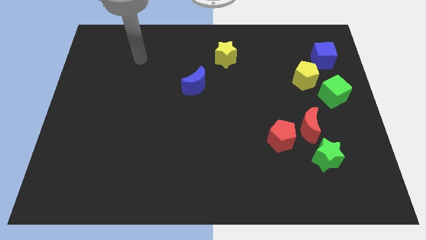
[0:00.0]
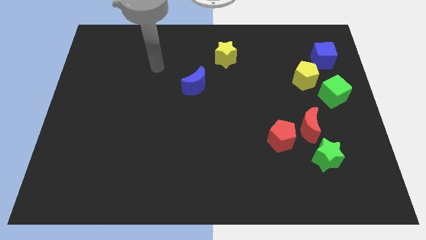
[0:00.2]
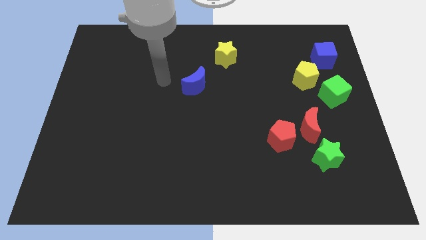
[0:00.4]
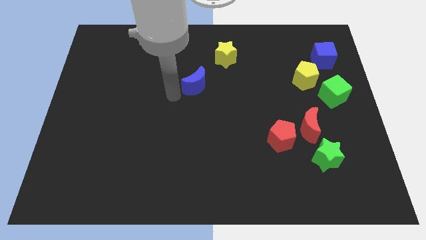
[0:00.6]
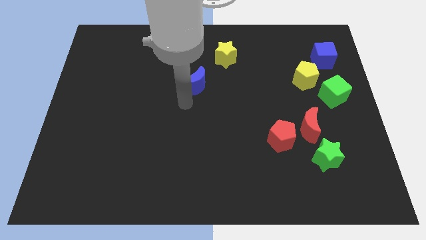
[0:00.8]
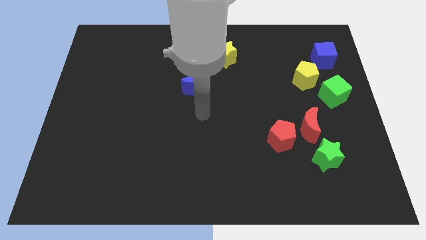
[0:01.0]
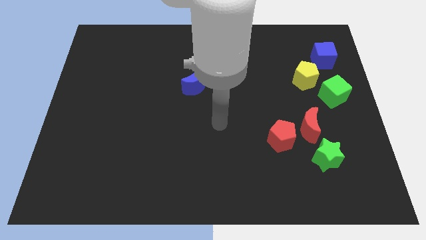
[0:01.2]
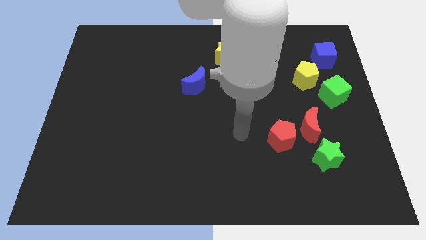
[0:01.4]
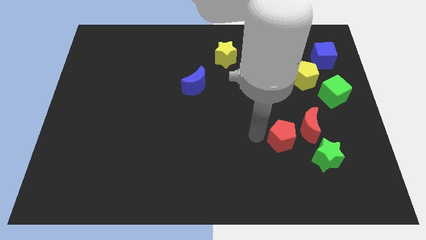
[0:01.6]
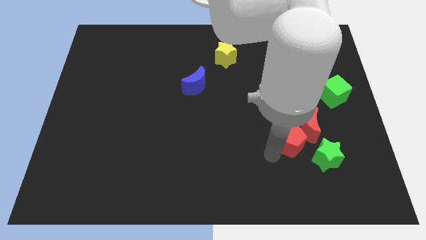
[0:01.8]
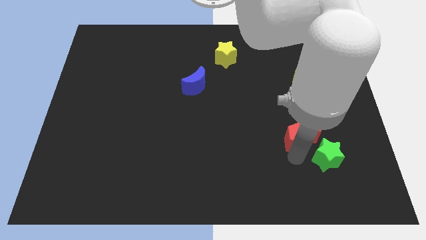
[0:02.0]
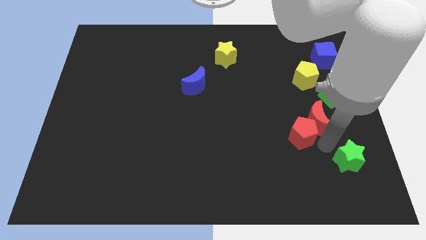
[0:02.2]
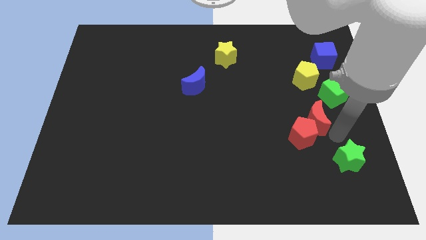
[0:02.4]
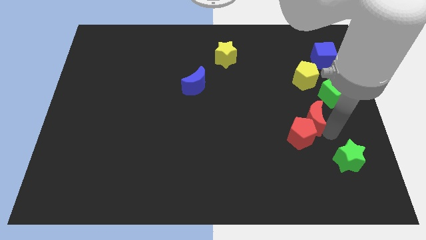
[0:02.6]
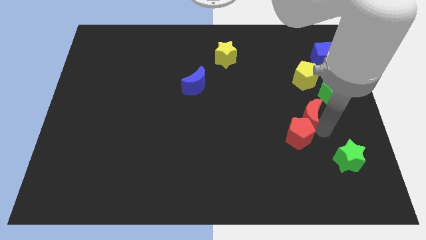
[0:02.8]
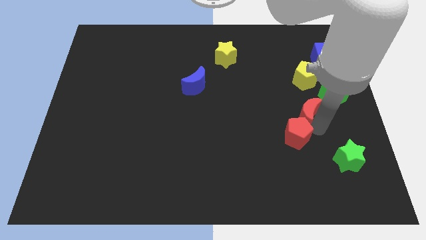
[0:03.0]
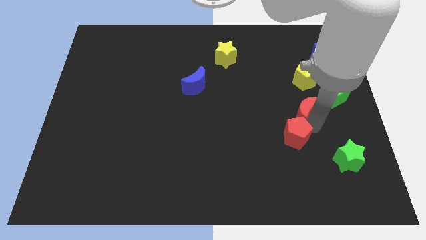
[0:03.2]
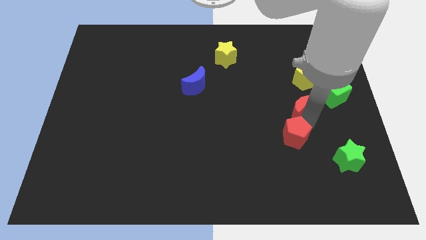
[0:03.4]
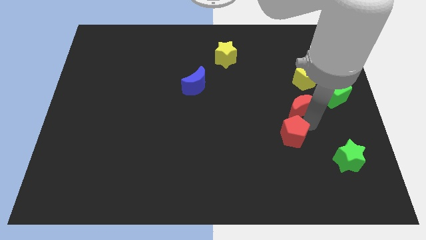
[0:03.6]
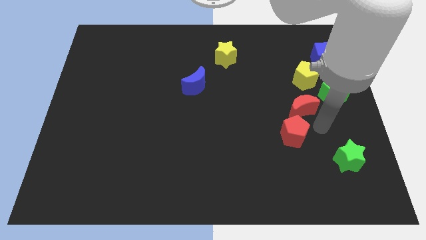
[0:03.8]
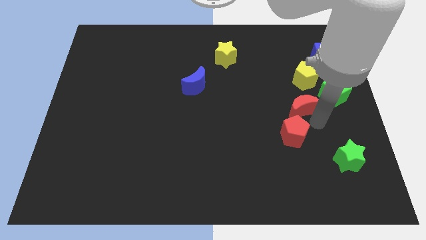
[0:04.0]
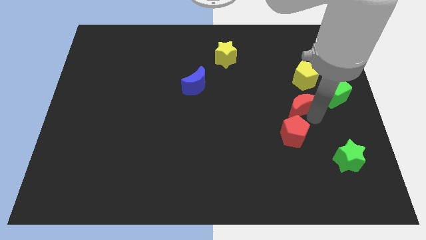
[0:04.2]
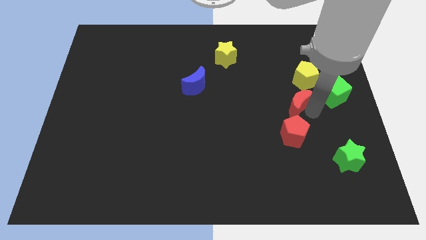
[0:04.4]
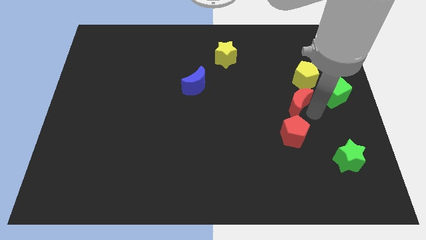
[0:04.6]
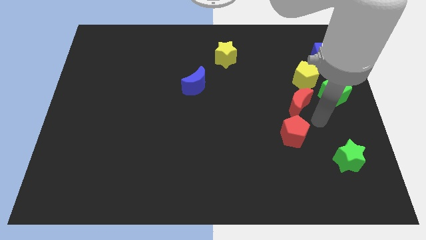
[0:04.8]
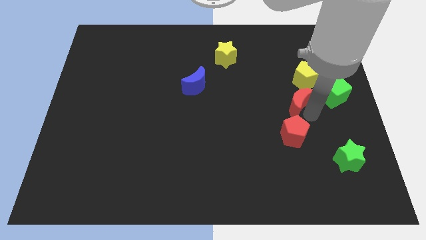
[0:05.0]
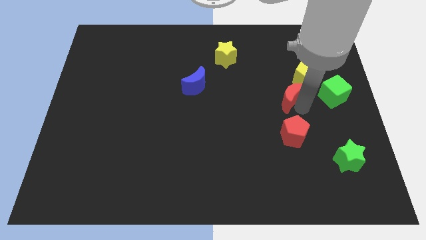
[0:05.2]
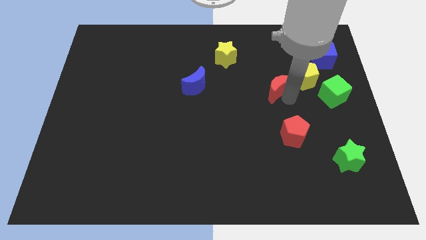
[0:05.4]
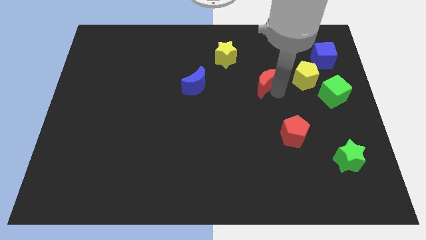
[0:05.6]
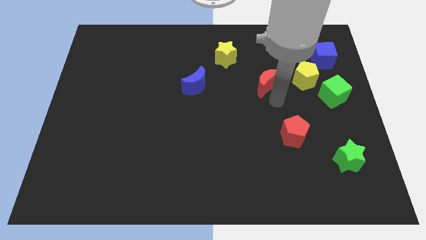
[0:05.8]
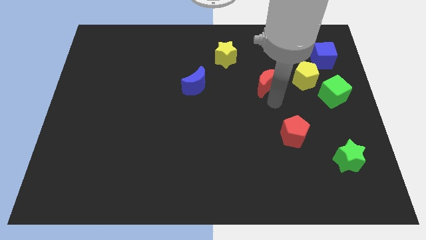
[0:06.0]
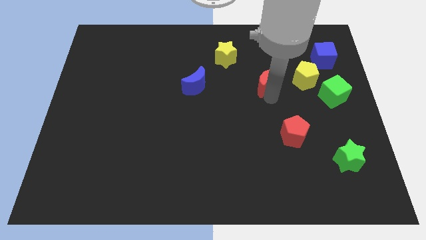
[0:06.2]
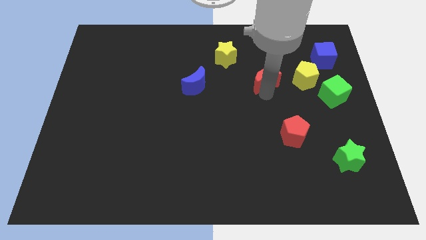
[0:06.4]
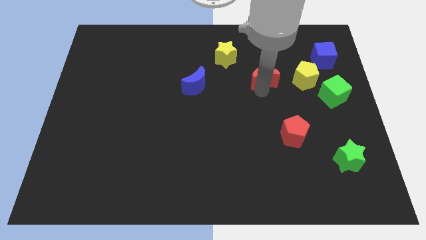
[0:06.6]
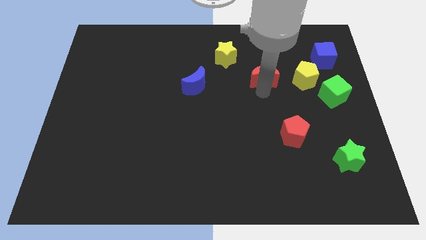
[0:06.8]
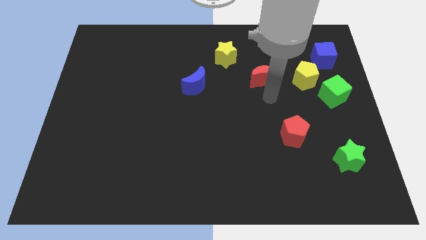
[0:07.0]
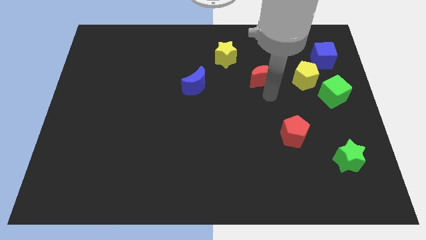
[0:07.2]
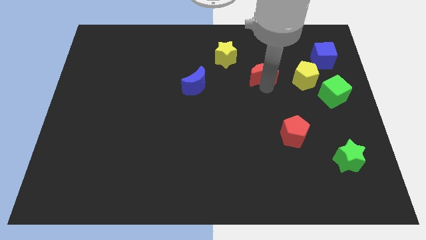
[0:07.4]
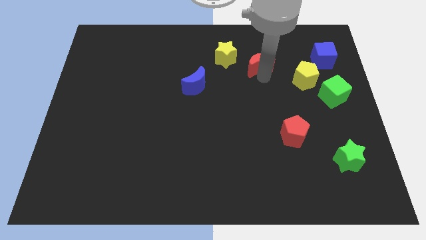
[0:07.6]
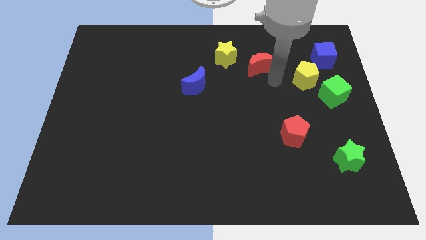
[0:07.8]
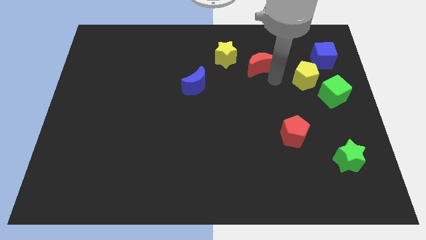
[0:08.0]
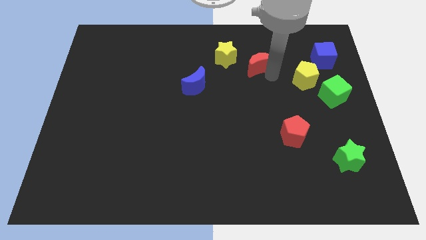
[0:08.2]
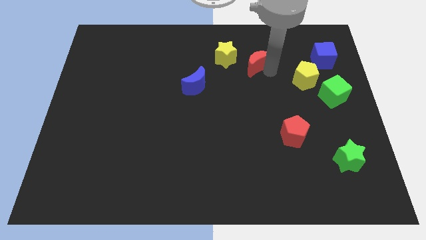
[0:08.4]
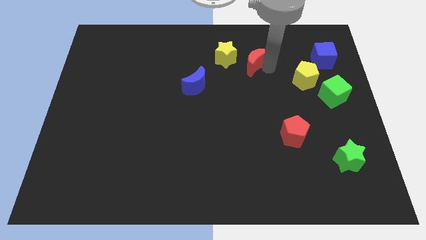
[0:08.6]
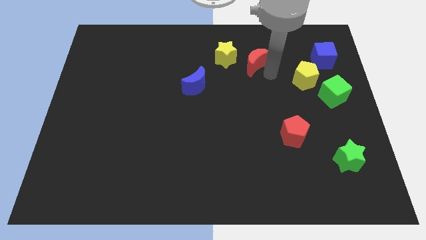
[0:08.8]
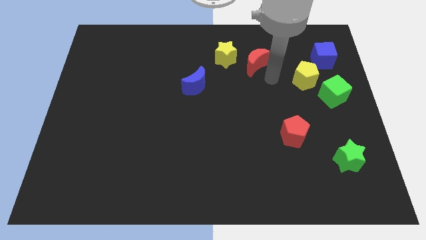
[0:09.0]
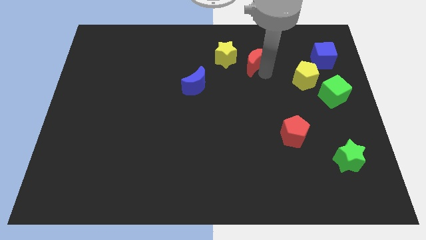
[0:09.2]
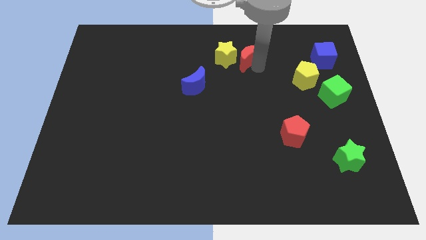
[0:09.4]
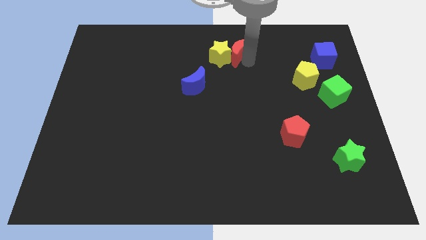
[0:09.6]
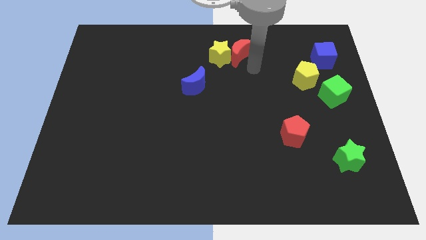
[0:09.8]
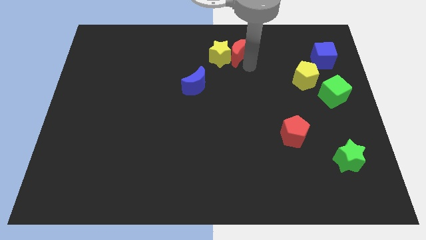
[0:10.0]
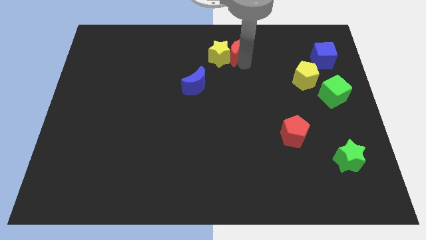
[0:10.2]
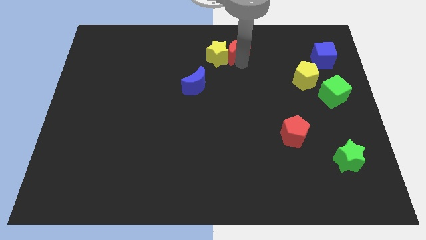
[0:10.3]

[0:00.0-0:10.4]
move the red moon to the top
